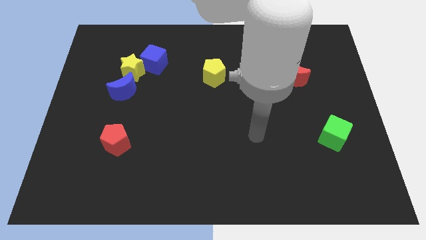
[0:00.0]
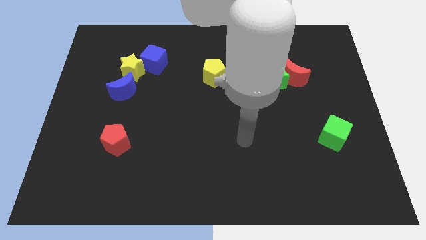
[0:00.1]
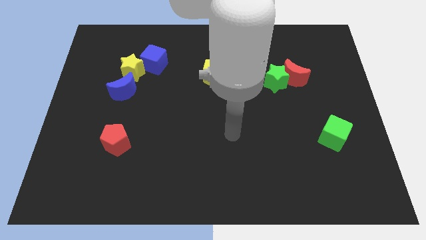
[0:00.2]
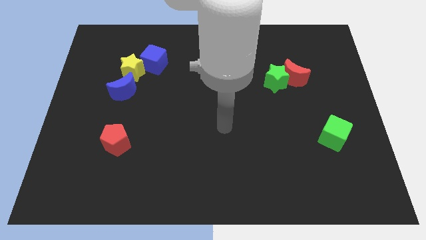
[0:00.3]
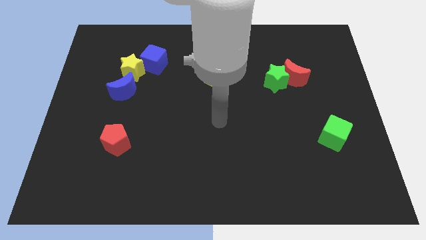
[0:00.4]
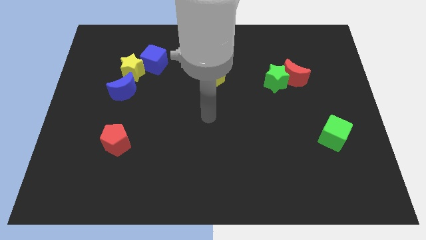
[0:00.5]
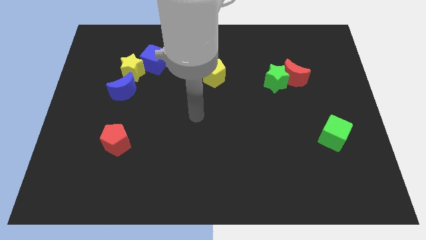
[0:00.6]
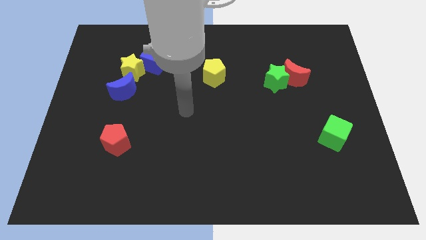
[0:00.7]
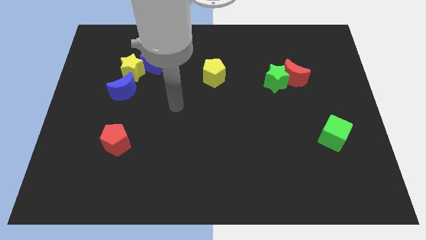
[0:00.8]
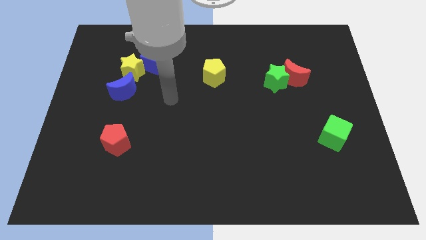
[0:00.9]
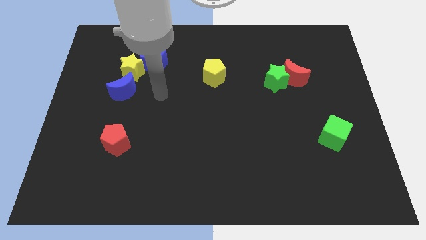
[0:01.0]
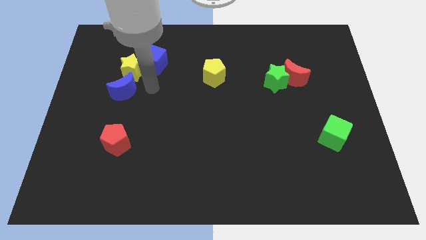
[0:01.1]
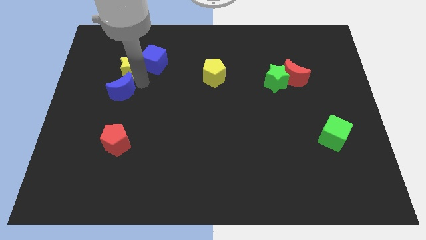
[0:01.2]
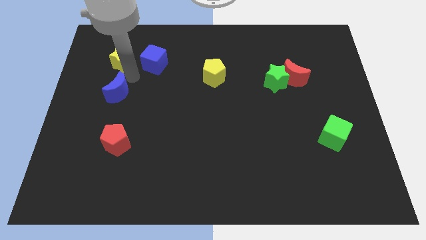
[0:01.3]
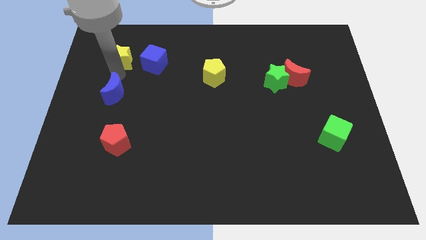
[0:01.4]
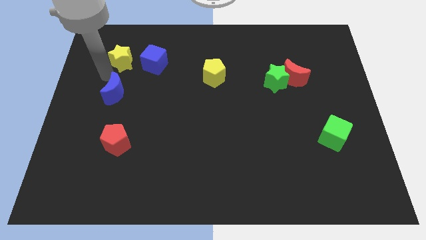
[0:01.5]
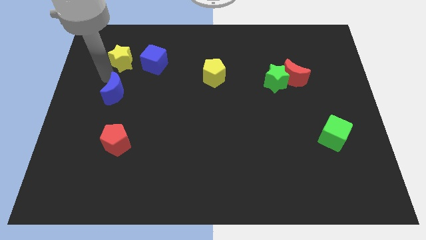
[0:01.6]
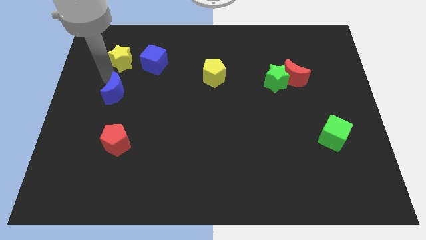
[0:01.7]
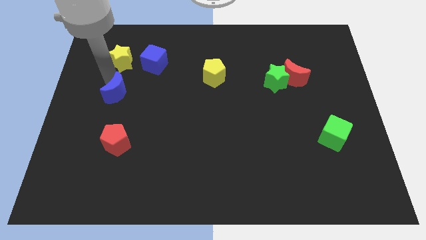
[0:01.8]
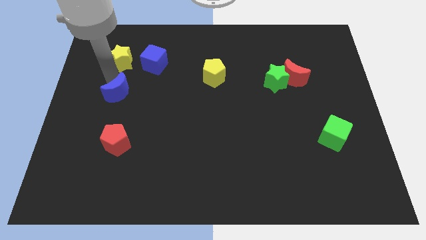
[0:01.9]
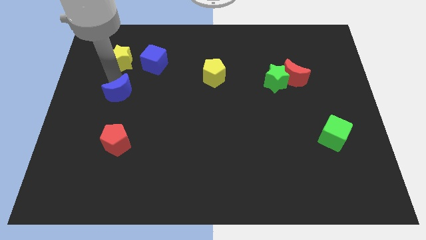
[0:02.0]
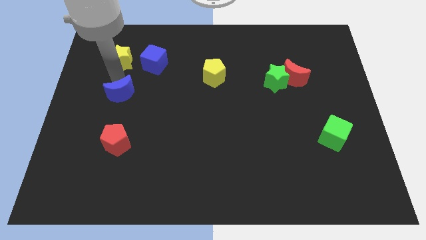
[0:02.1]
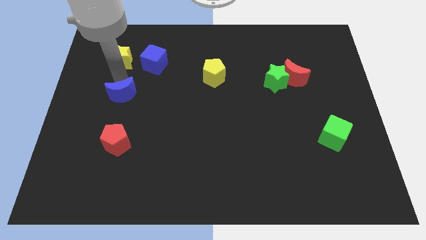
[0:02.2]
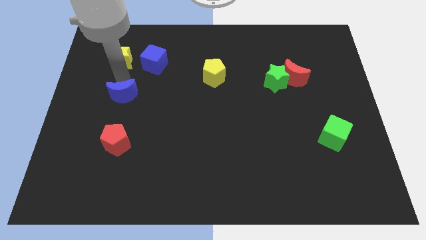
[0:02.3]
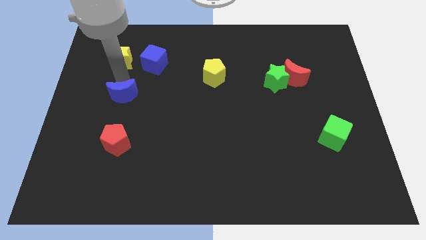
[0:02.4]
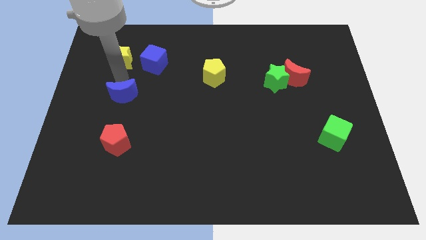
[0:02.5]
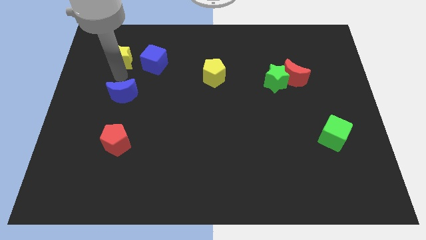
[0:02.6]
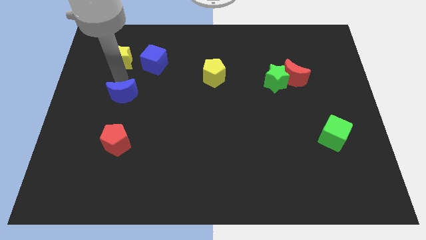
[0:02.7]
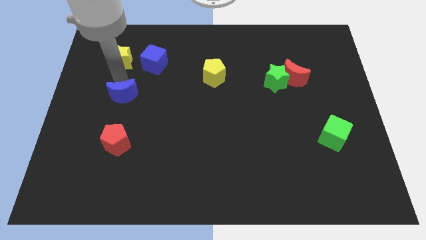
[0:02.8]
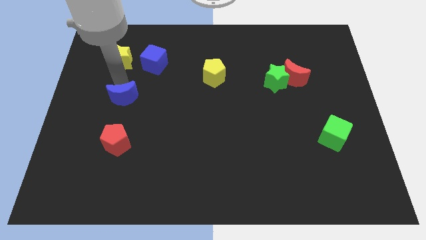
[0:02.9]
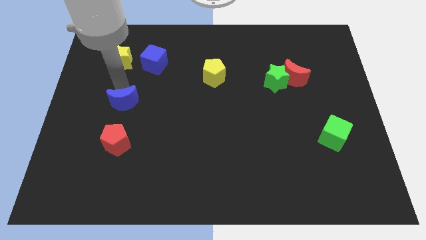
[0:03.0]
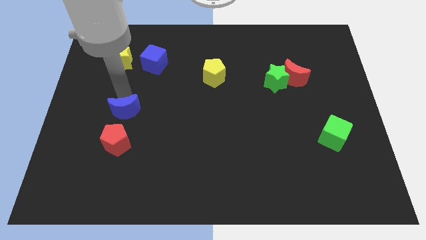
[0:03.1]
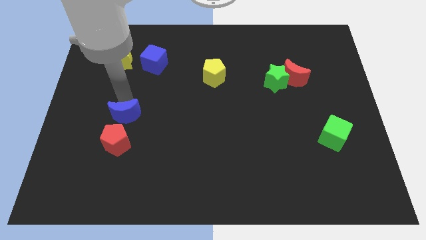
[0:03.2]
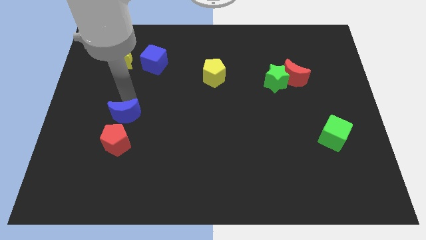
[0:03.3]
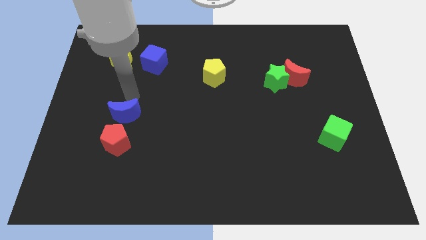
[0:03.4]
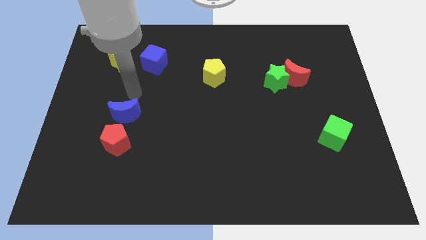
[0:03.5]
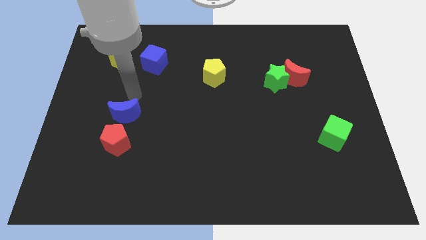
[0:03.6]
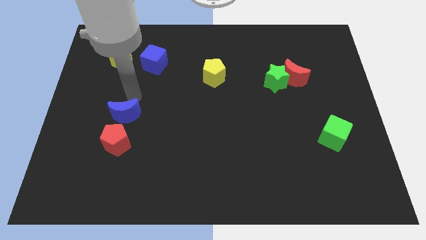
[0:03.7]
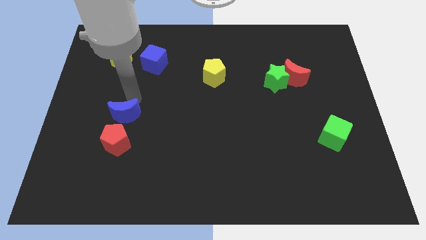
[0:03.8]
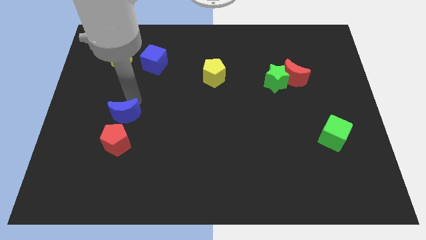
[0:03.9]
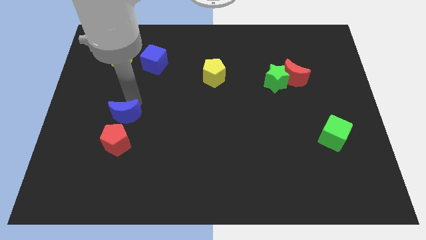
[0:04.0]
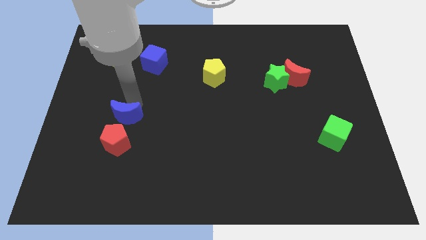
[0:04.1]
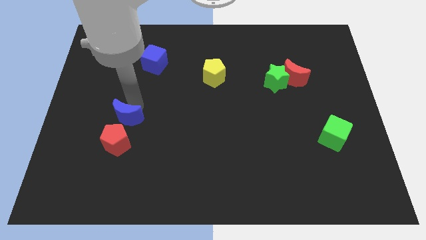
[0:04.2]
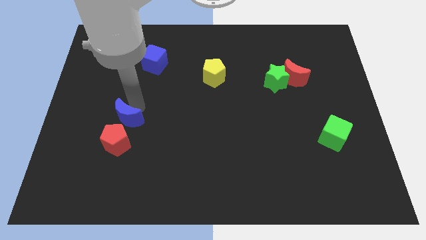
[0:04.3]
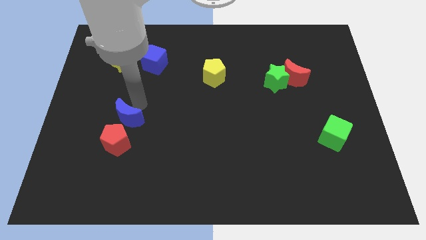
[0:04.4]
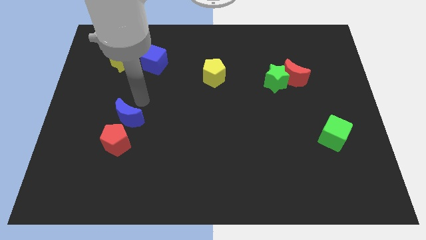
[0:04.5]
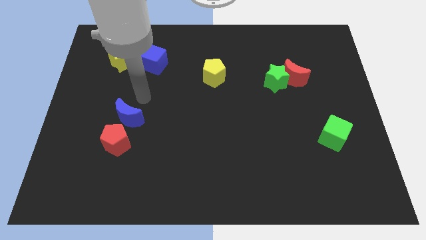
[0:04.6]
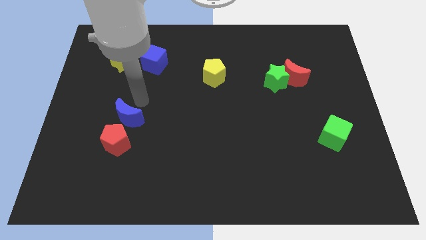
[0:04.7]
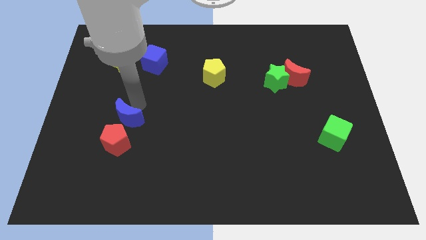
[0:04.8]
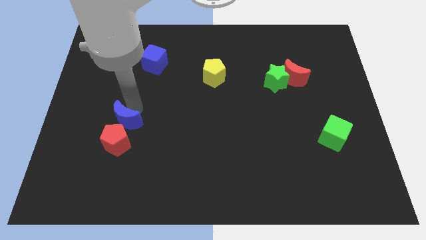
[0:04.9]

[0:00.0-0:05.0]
put the blue moon close to the red pentagon

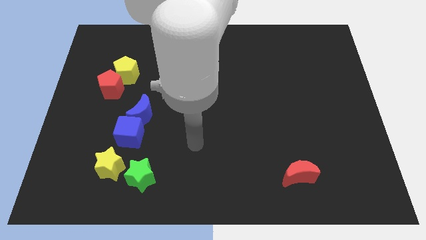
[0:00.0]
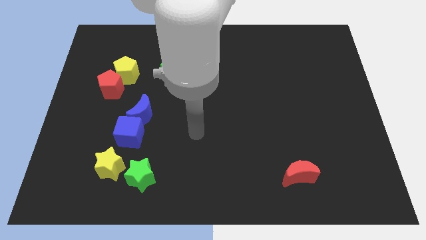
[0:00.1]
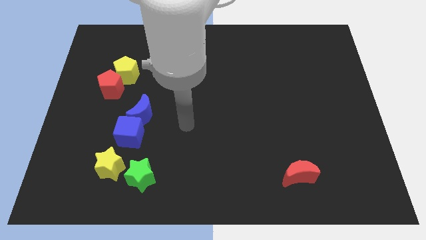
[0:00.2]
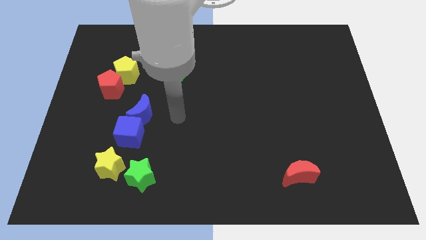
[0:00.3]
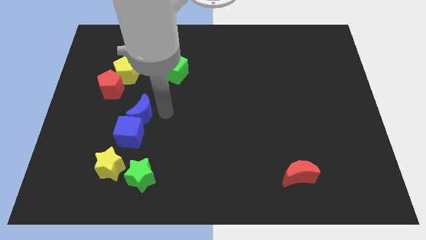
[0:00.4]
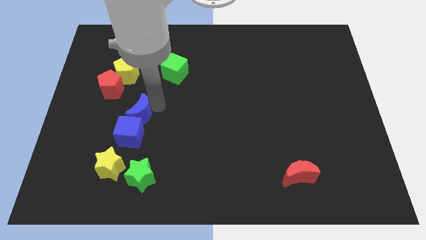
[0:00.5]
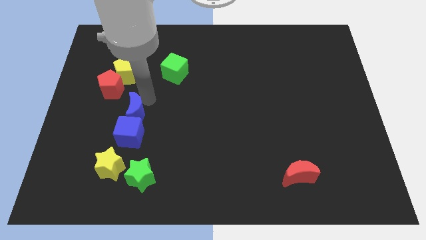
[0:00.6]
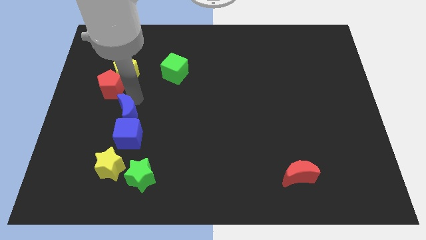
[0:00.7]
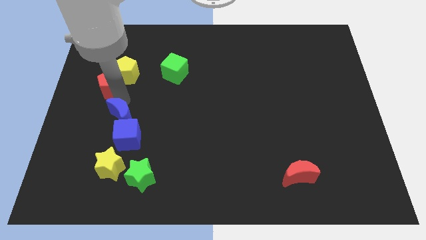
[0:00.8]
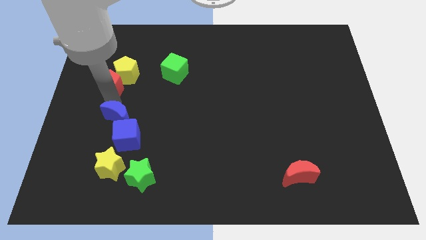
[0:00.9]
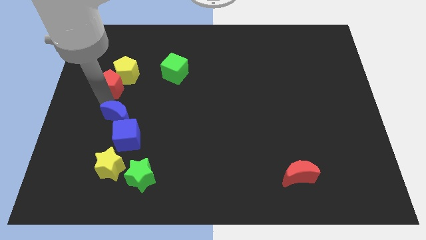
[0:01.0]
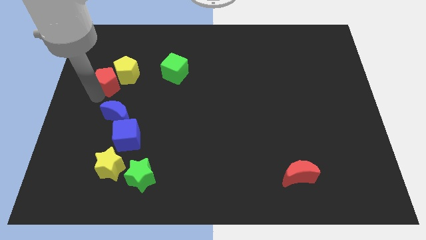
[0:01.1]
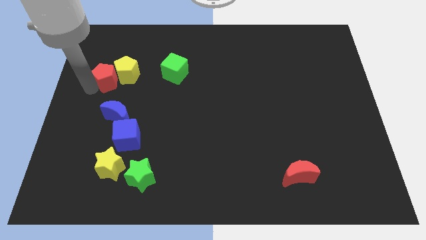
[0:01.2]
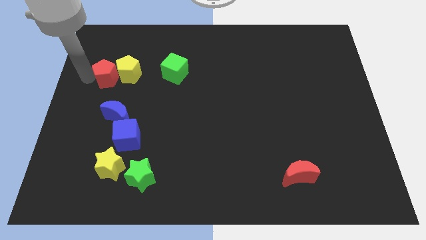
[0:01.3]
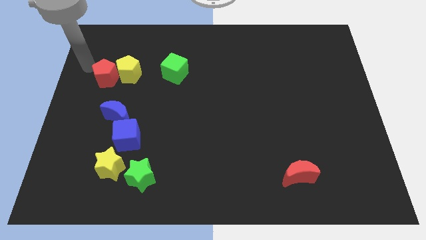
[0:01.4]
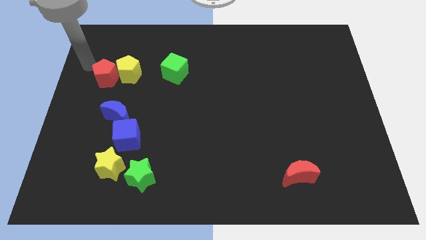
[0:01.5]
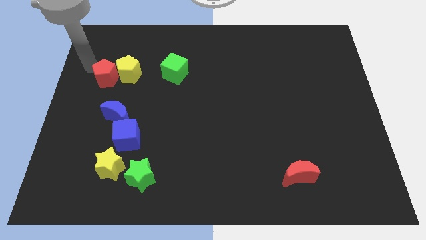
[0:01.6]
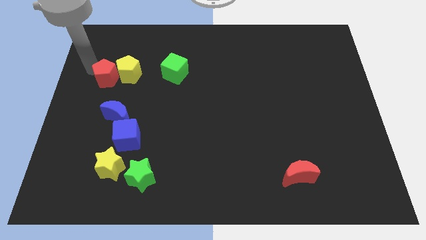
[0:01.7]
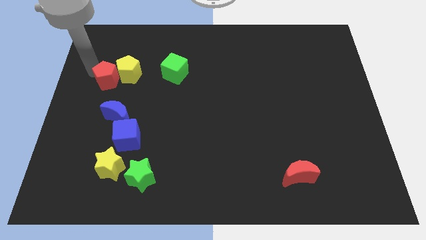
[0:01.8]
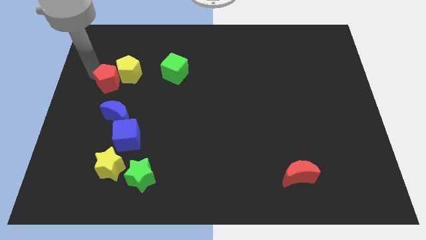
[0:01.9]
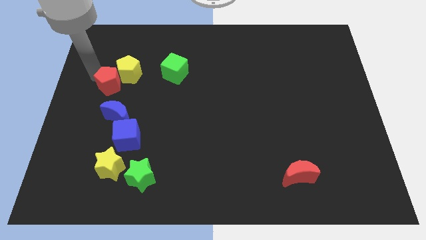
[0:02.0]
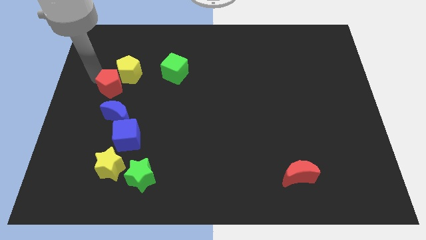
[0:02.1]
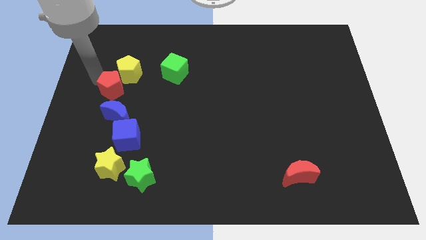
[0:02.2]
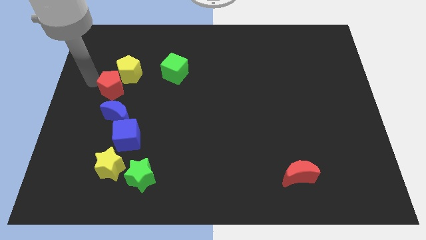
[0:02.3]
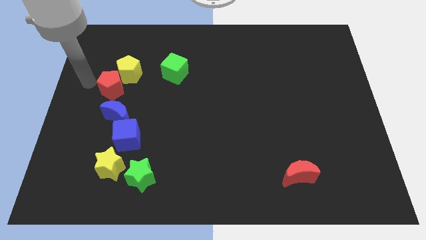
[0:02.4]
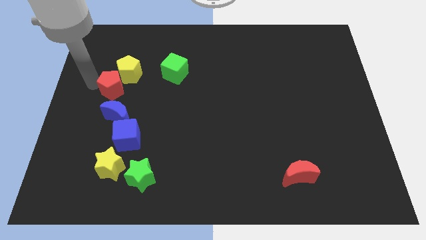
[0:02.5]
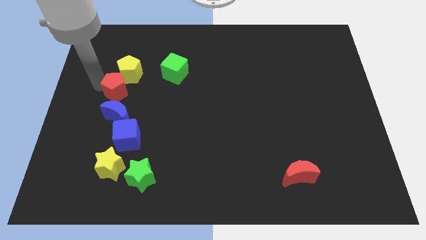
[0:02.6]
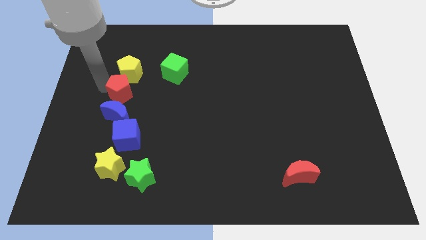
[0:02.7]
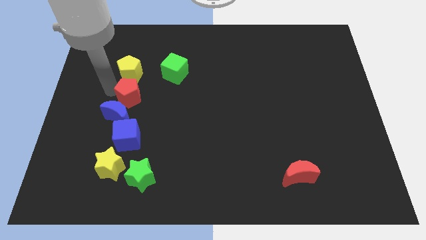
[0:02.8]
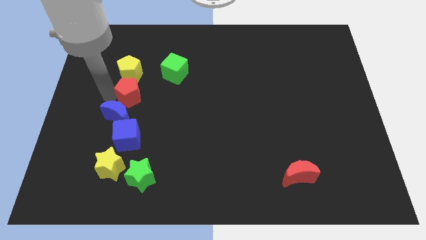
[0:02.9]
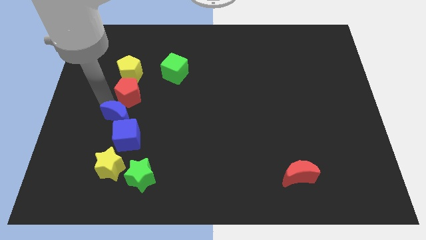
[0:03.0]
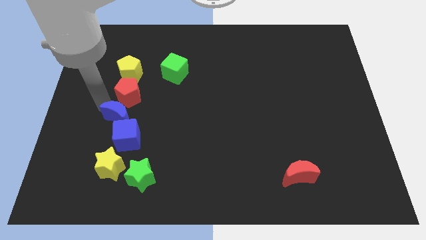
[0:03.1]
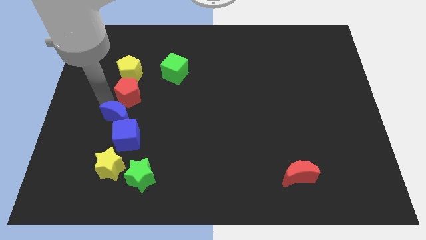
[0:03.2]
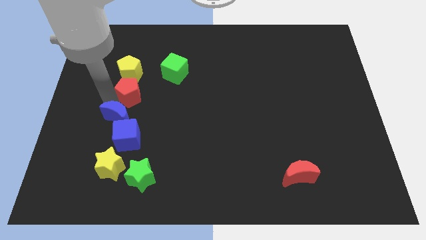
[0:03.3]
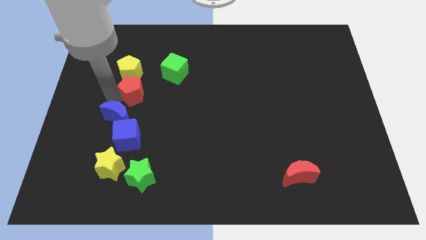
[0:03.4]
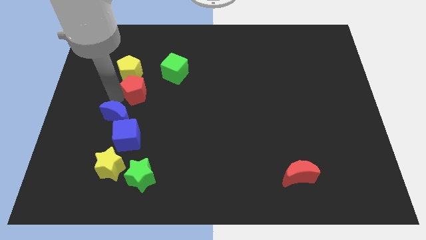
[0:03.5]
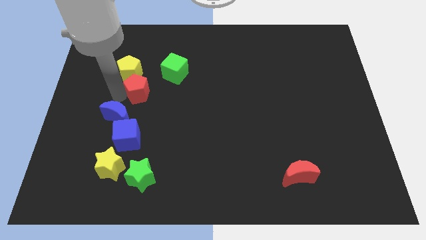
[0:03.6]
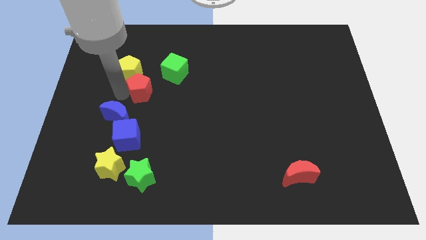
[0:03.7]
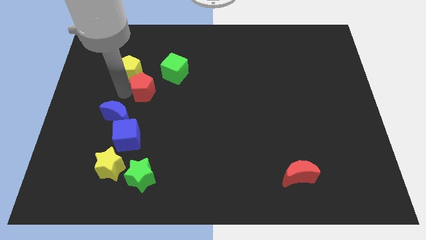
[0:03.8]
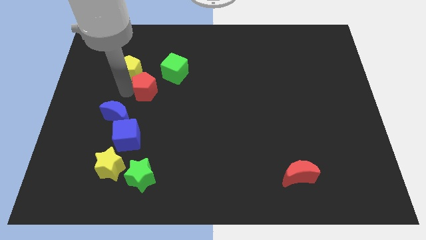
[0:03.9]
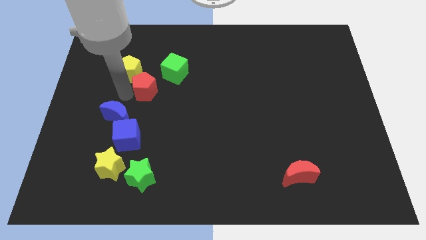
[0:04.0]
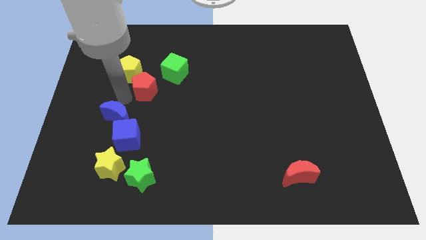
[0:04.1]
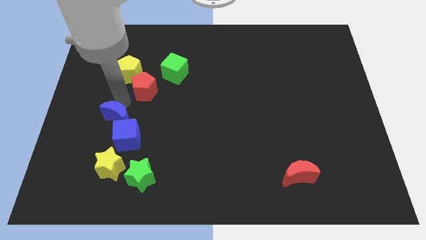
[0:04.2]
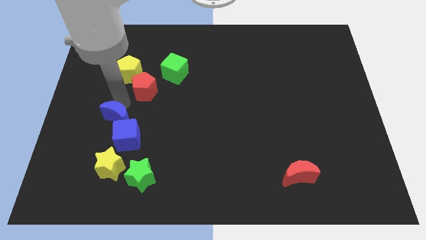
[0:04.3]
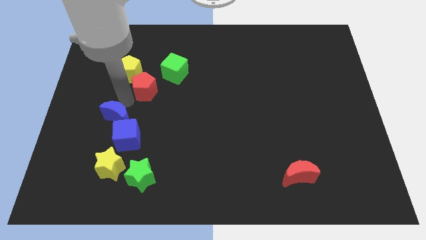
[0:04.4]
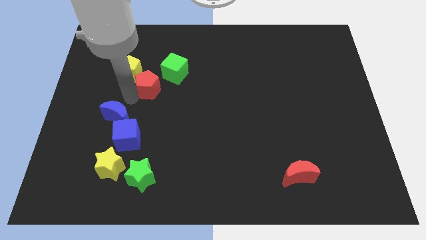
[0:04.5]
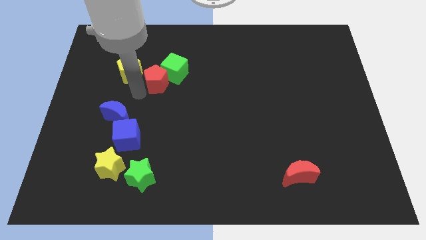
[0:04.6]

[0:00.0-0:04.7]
put the red pentagon to the green cube
